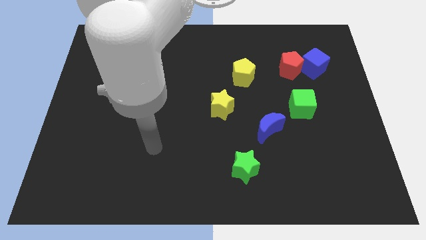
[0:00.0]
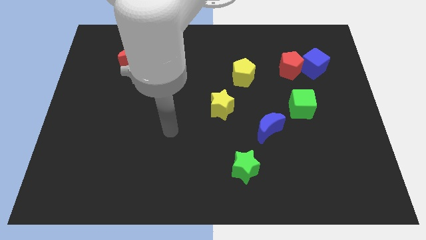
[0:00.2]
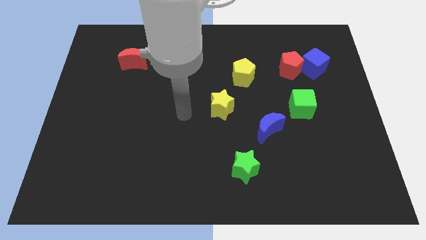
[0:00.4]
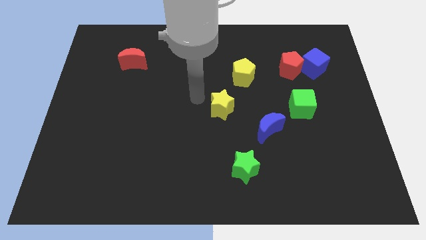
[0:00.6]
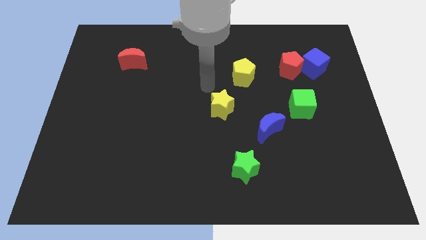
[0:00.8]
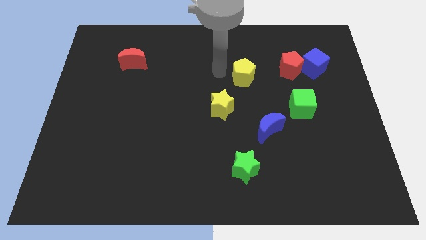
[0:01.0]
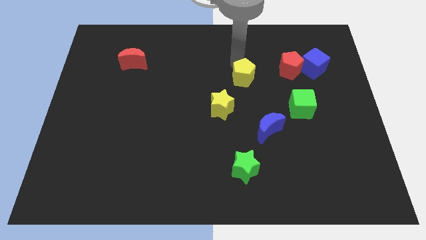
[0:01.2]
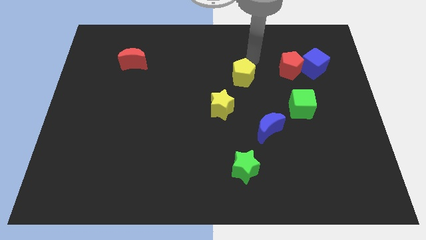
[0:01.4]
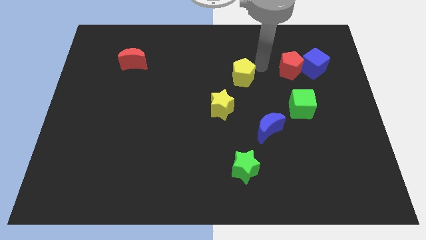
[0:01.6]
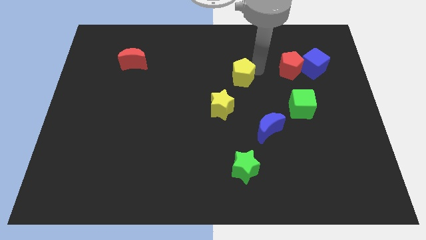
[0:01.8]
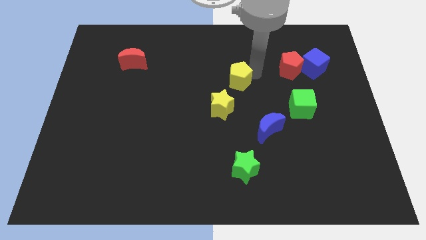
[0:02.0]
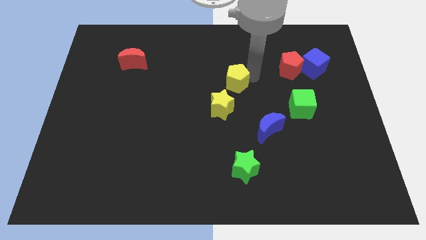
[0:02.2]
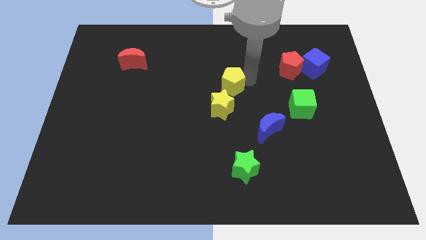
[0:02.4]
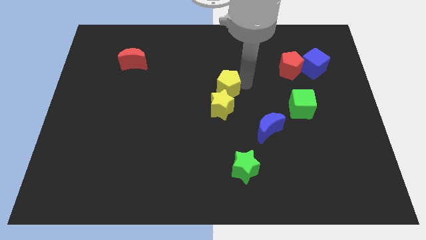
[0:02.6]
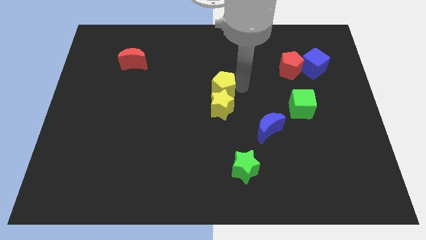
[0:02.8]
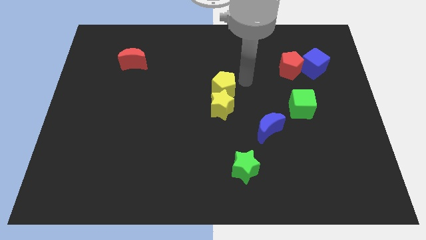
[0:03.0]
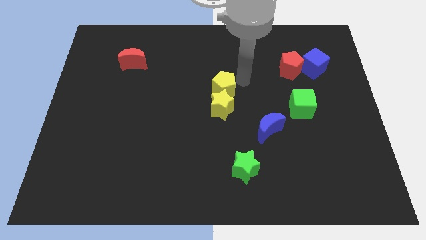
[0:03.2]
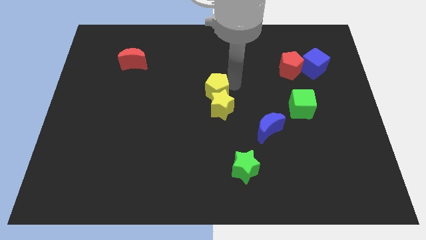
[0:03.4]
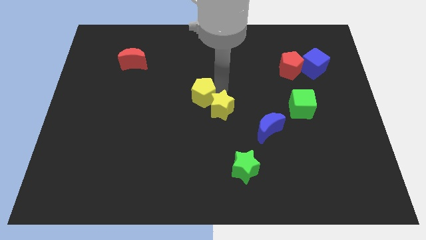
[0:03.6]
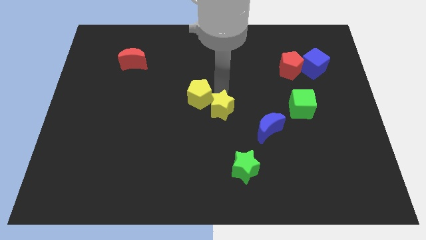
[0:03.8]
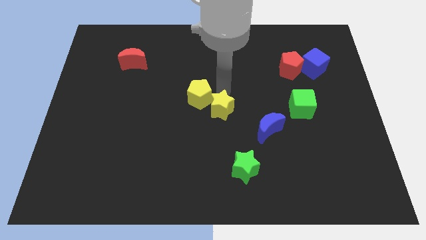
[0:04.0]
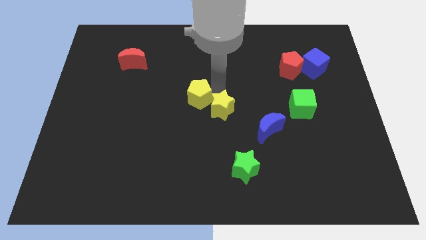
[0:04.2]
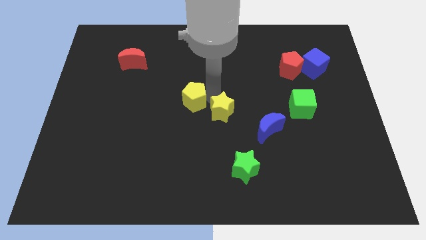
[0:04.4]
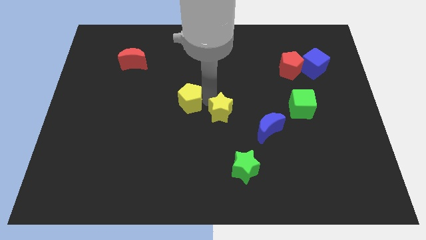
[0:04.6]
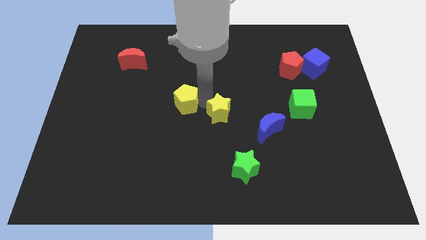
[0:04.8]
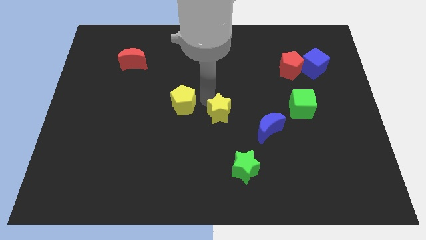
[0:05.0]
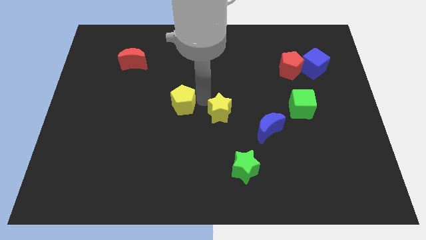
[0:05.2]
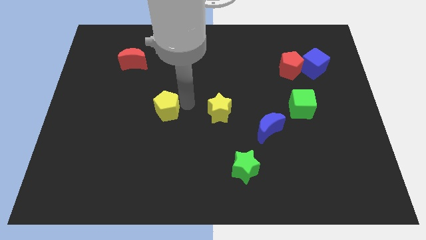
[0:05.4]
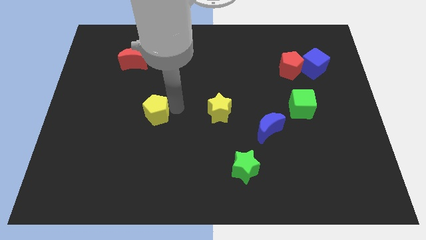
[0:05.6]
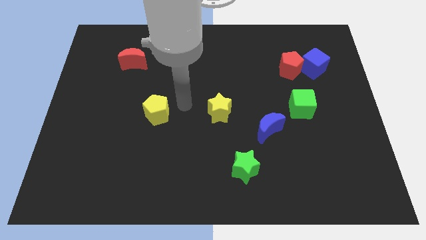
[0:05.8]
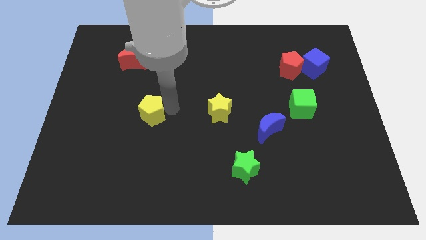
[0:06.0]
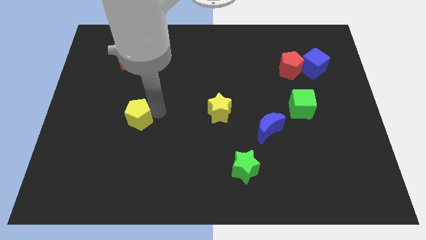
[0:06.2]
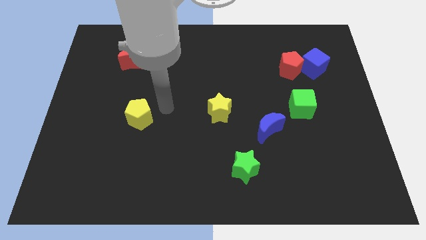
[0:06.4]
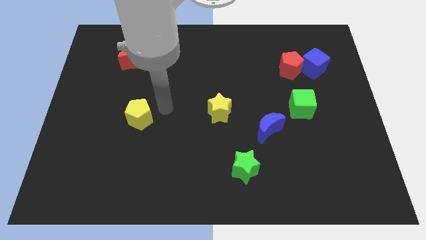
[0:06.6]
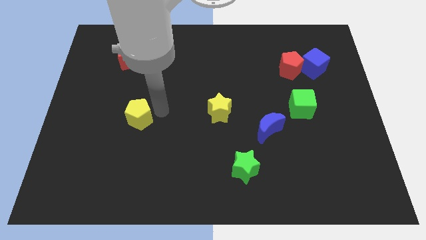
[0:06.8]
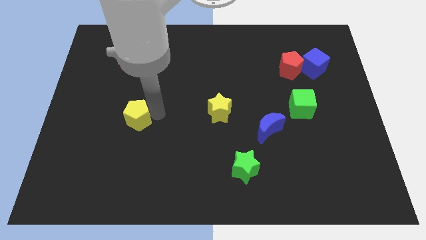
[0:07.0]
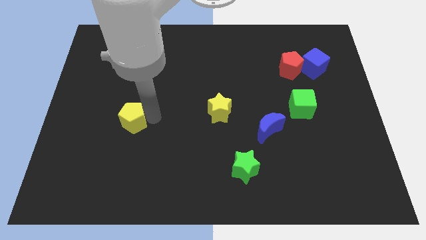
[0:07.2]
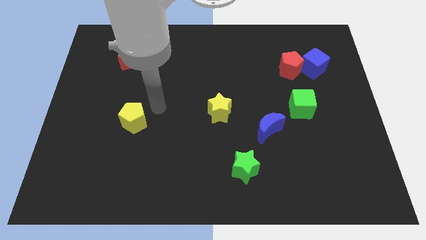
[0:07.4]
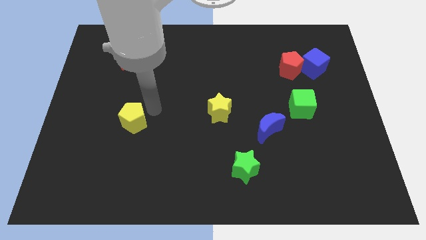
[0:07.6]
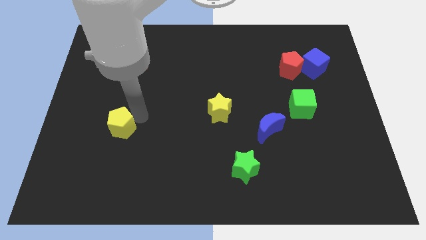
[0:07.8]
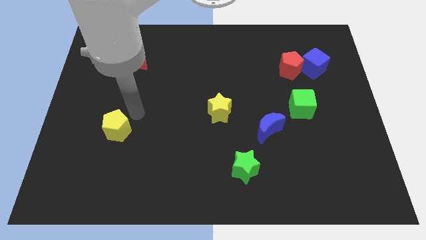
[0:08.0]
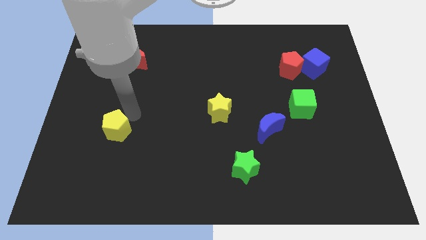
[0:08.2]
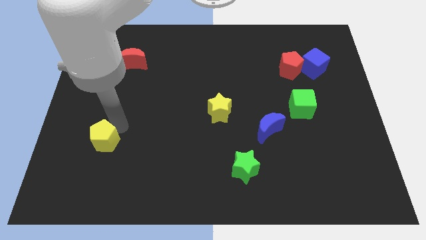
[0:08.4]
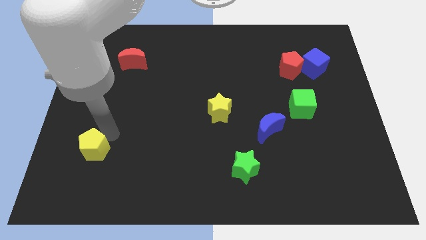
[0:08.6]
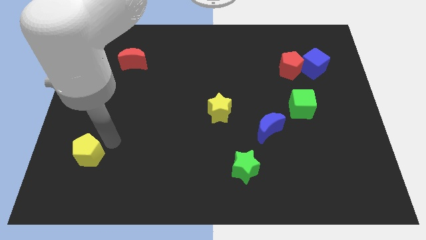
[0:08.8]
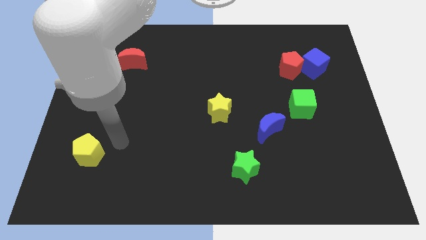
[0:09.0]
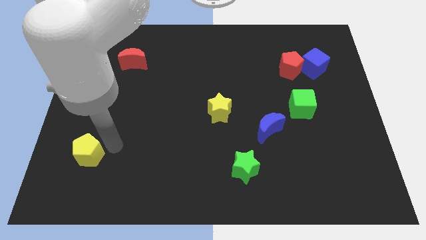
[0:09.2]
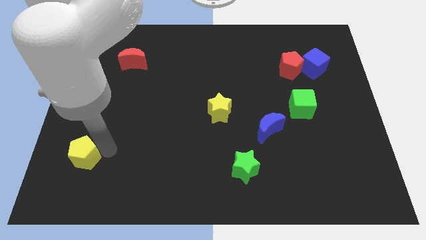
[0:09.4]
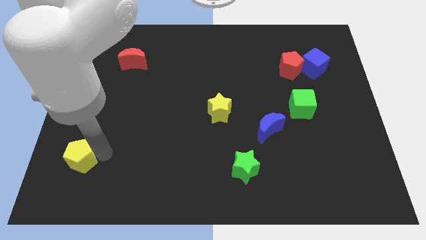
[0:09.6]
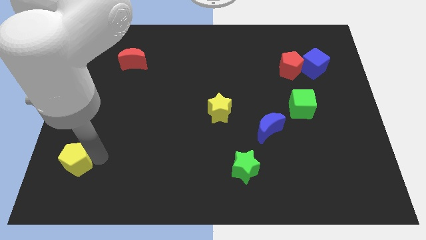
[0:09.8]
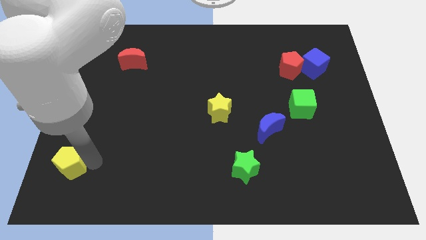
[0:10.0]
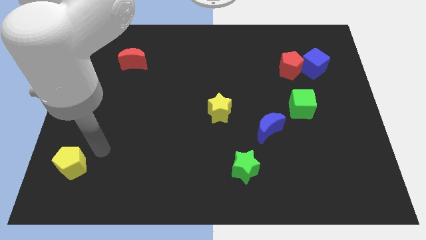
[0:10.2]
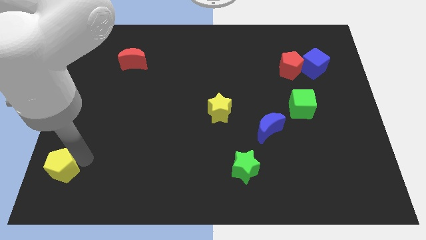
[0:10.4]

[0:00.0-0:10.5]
put the yellow pentagon to the bottom left of the board
